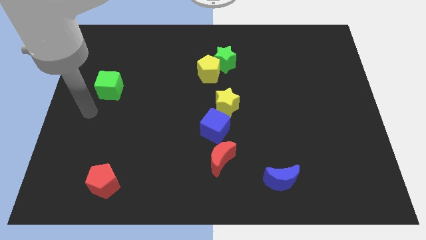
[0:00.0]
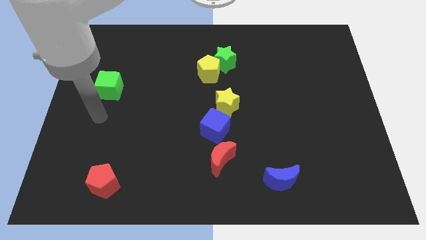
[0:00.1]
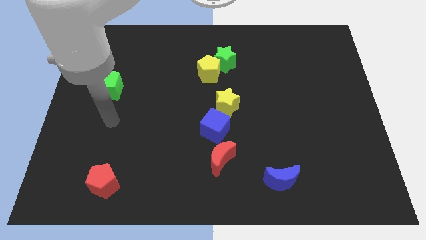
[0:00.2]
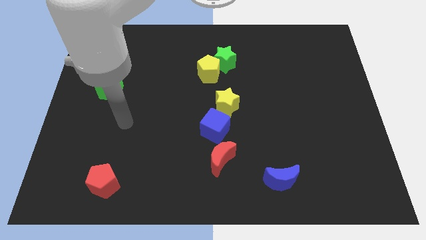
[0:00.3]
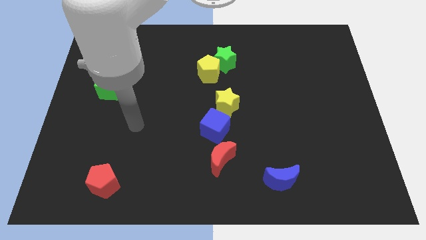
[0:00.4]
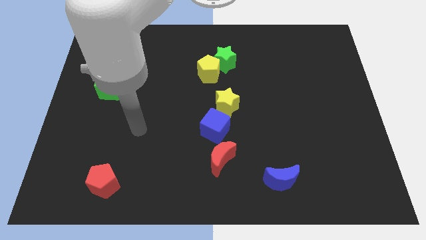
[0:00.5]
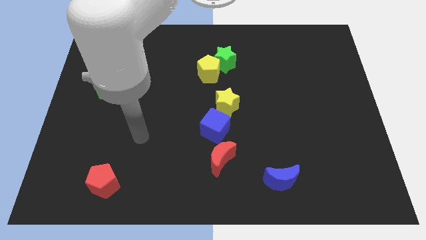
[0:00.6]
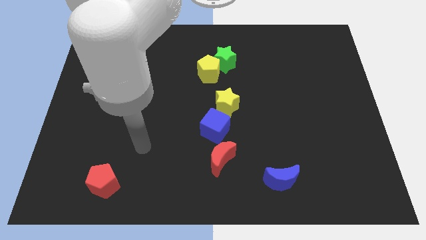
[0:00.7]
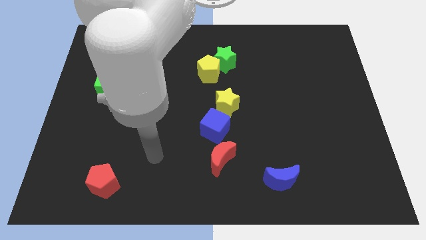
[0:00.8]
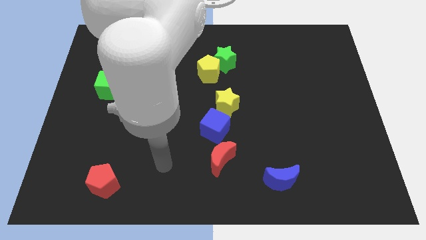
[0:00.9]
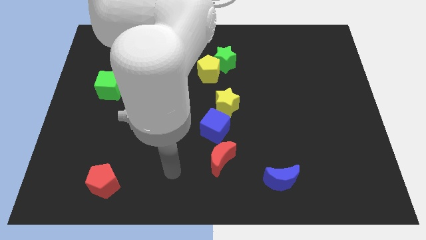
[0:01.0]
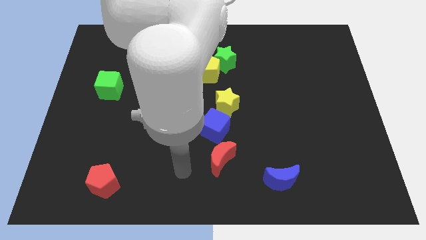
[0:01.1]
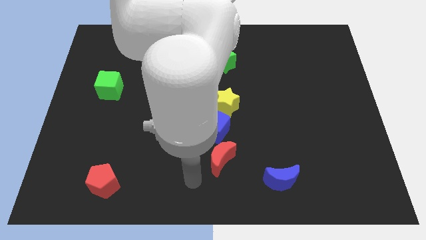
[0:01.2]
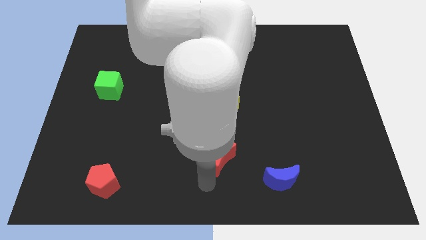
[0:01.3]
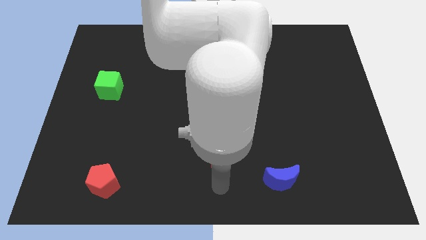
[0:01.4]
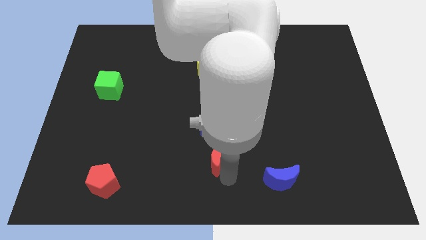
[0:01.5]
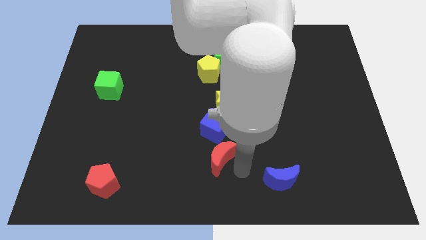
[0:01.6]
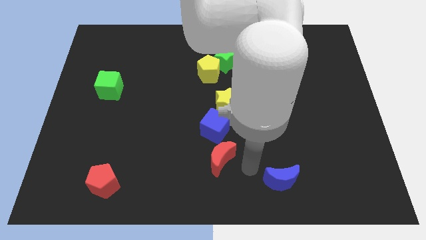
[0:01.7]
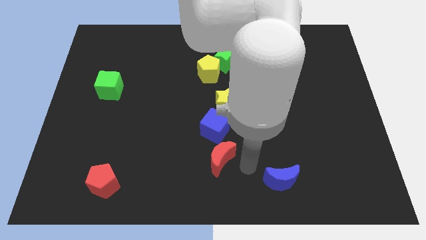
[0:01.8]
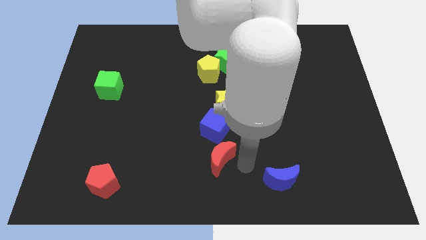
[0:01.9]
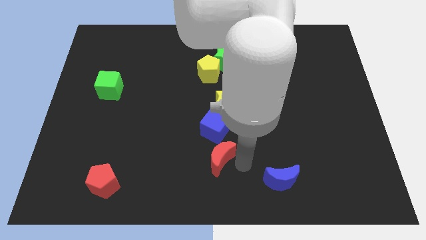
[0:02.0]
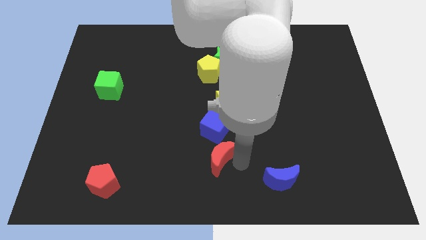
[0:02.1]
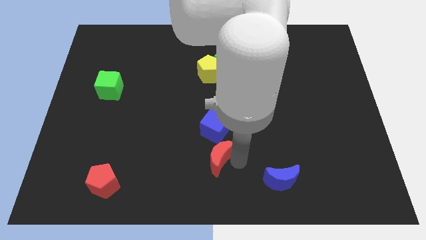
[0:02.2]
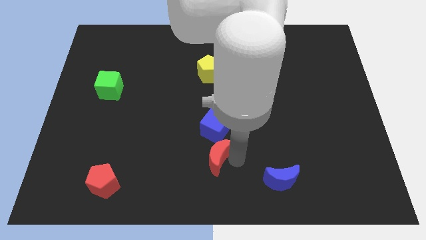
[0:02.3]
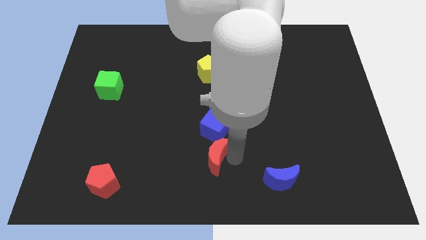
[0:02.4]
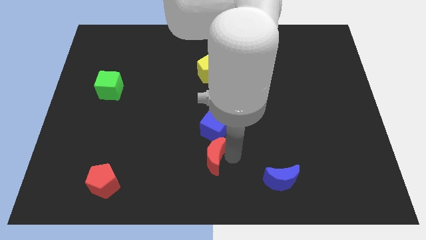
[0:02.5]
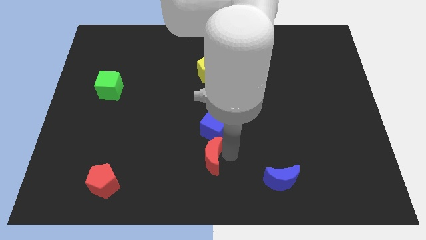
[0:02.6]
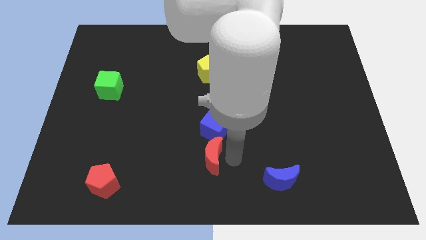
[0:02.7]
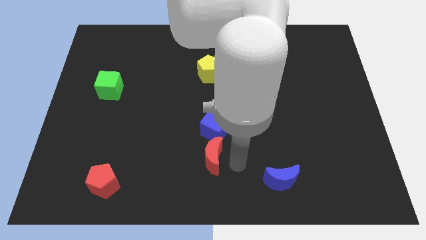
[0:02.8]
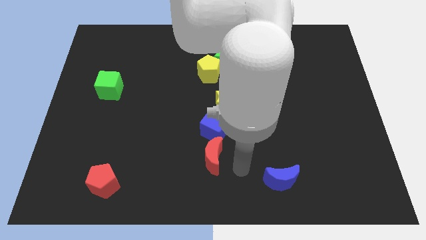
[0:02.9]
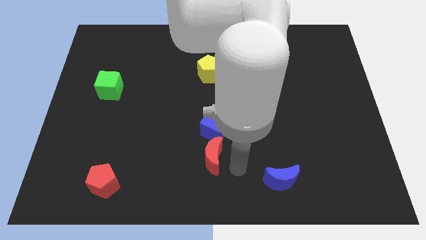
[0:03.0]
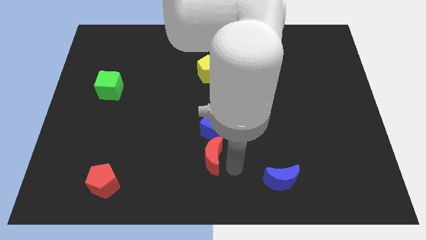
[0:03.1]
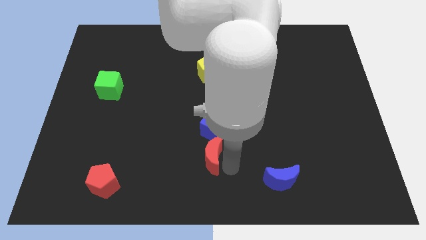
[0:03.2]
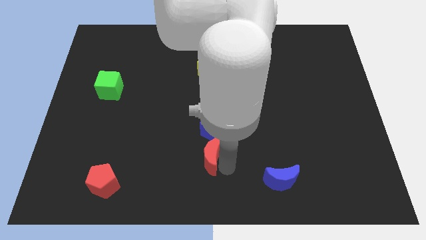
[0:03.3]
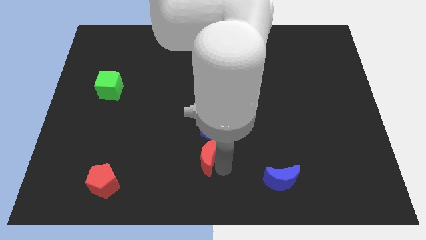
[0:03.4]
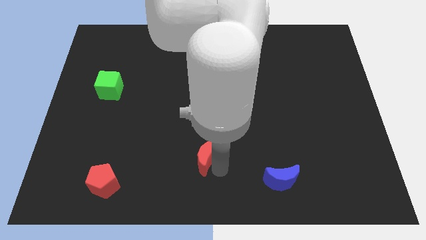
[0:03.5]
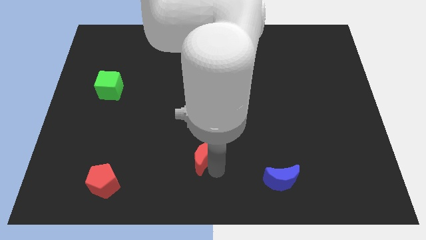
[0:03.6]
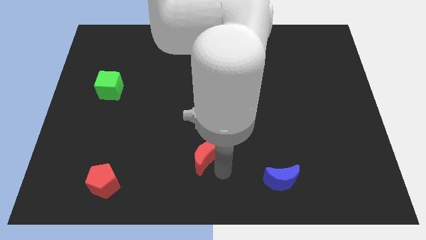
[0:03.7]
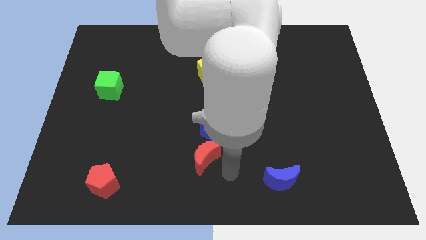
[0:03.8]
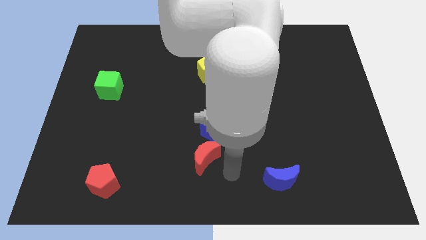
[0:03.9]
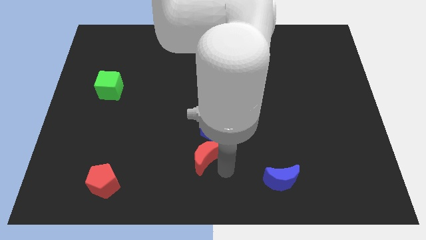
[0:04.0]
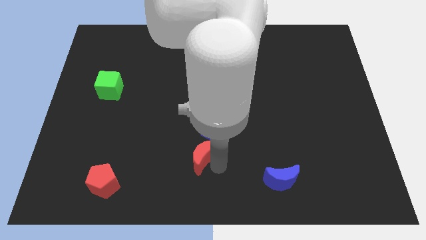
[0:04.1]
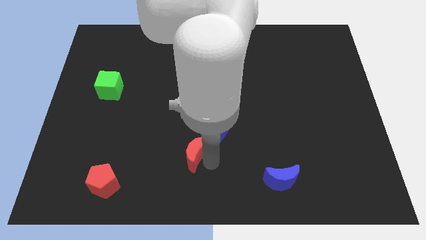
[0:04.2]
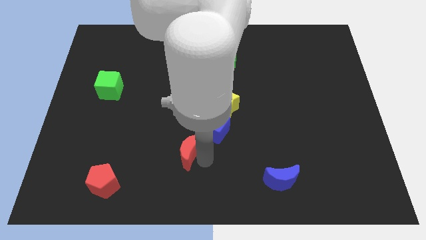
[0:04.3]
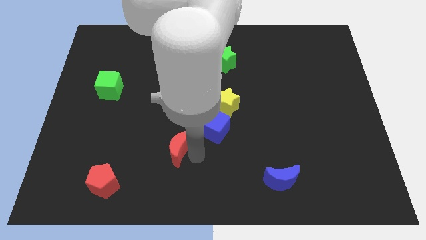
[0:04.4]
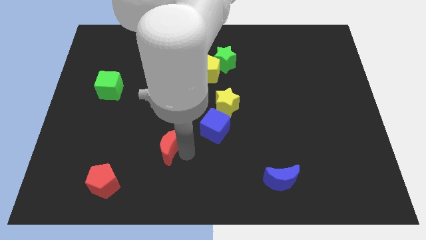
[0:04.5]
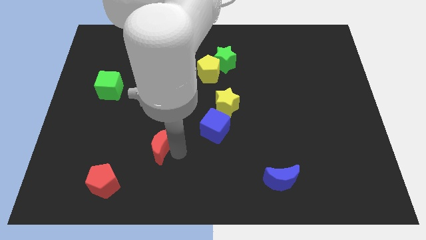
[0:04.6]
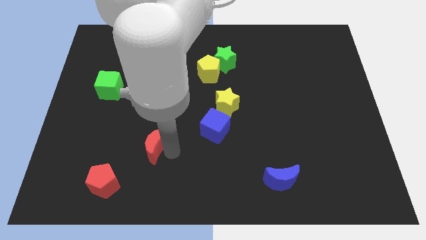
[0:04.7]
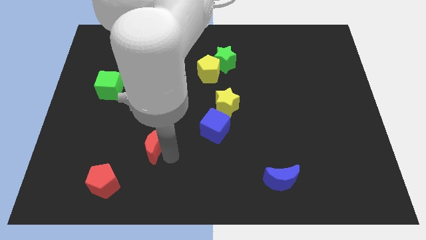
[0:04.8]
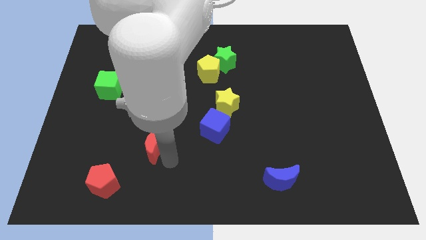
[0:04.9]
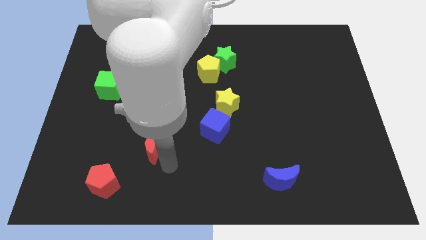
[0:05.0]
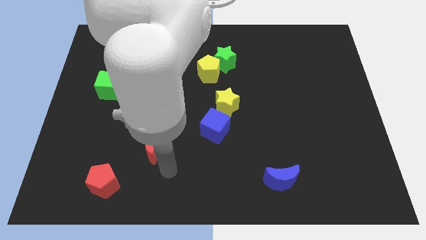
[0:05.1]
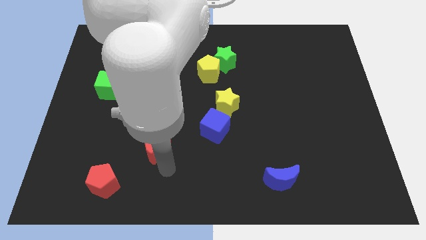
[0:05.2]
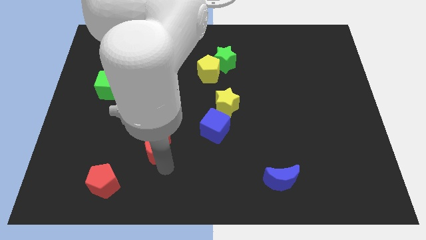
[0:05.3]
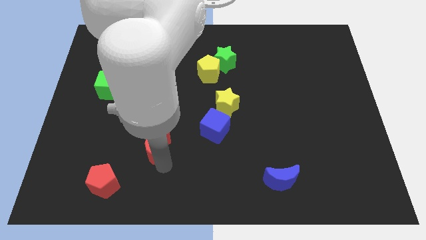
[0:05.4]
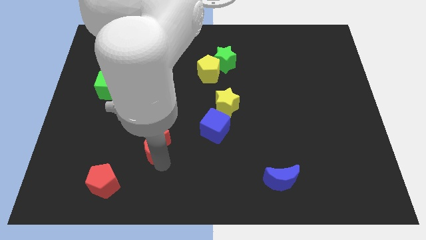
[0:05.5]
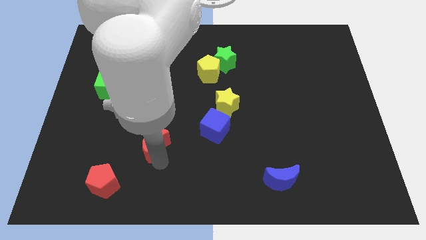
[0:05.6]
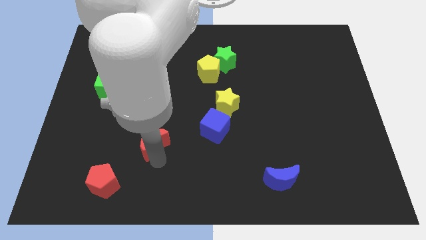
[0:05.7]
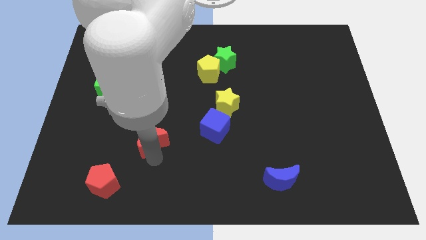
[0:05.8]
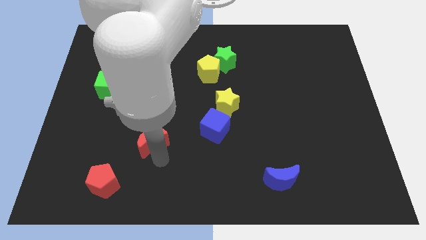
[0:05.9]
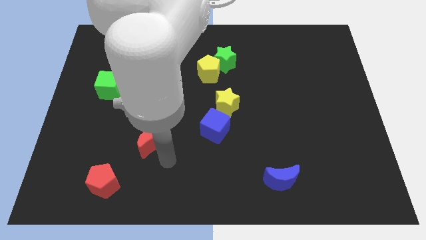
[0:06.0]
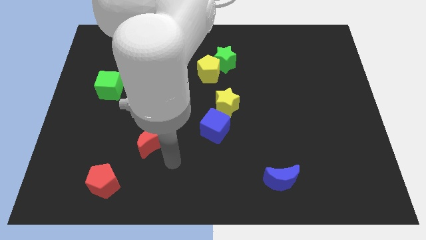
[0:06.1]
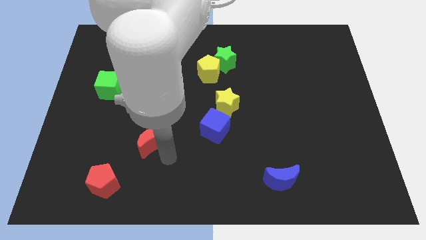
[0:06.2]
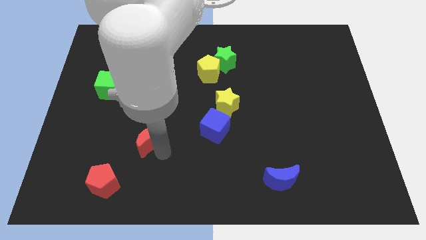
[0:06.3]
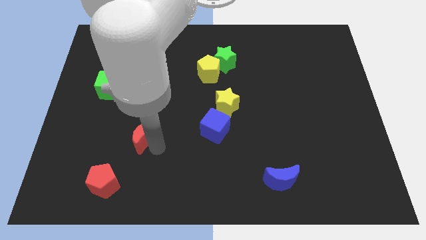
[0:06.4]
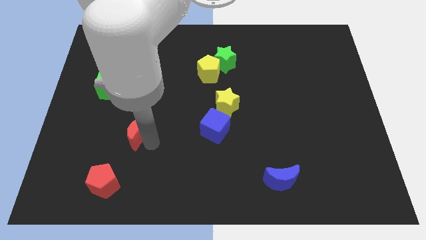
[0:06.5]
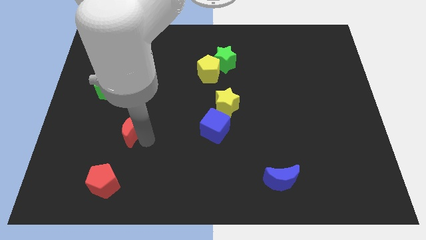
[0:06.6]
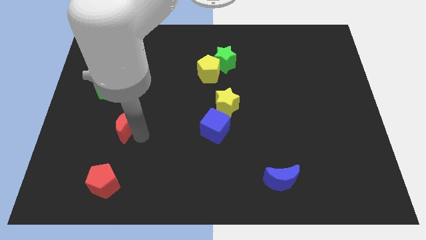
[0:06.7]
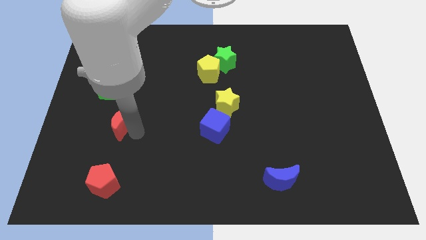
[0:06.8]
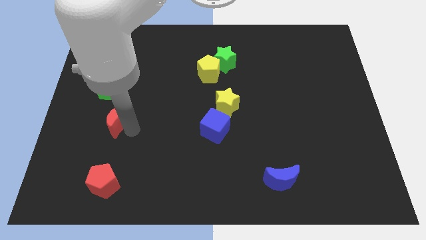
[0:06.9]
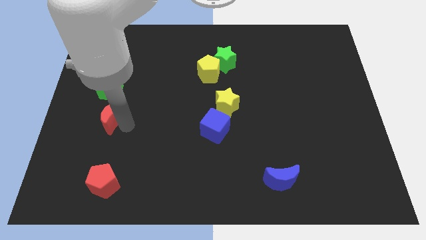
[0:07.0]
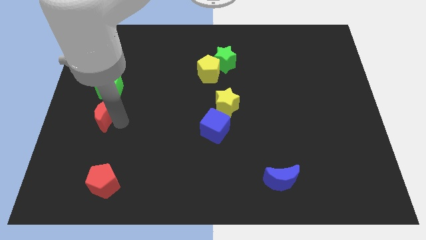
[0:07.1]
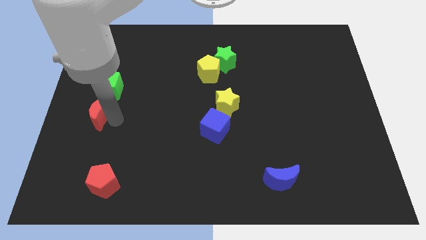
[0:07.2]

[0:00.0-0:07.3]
put the red moon to the left side of the board

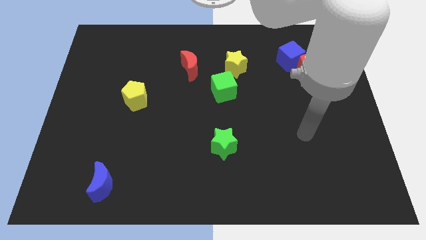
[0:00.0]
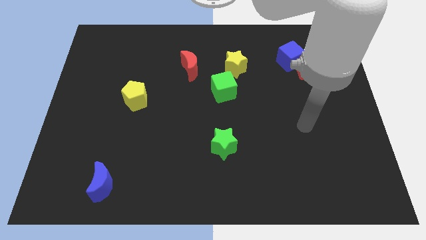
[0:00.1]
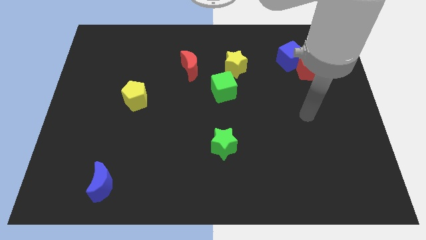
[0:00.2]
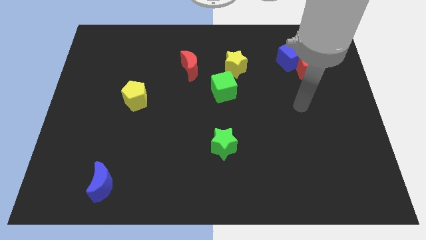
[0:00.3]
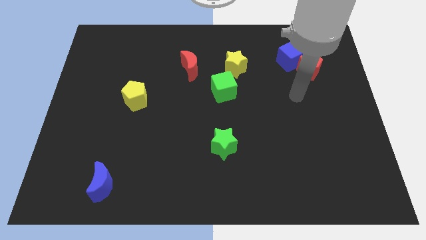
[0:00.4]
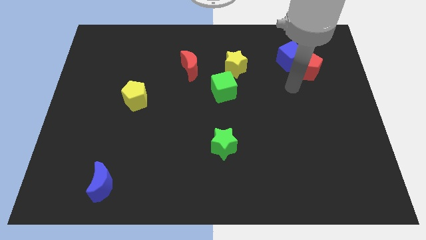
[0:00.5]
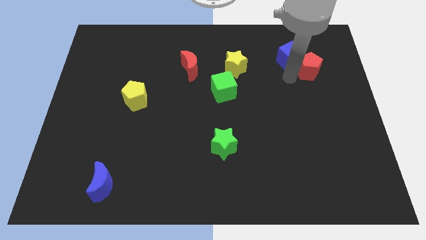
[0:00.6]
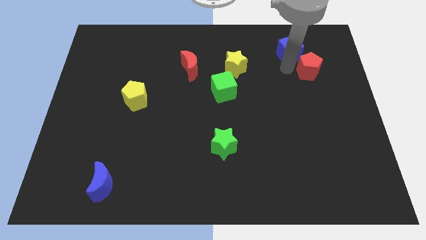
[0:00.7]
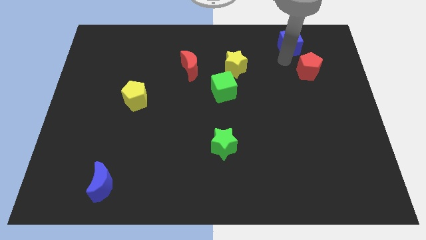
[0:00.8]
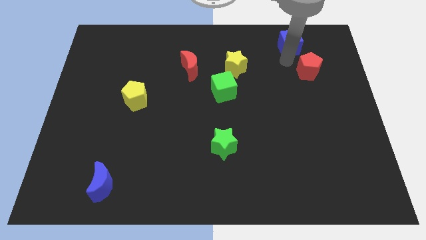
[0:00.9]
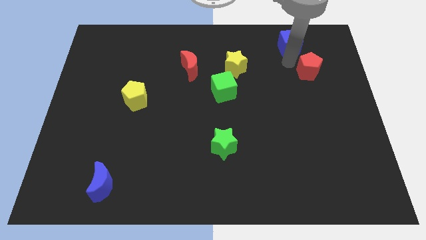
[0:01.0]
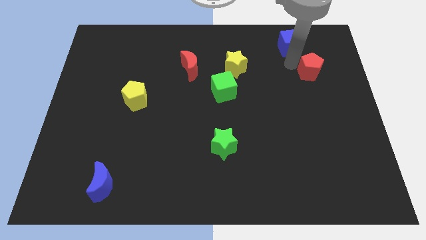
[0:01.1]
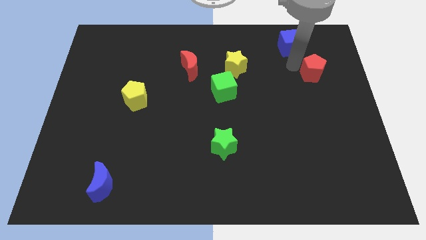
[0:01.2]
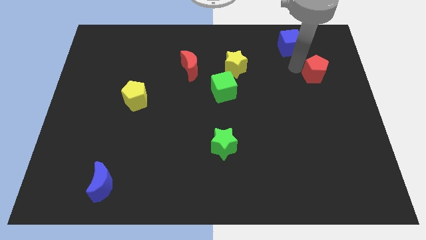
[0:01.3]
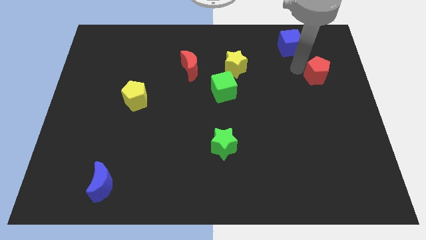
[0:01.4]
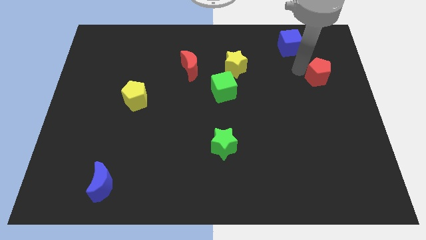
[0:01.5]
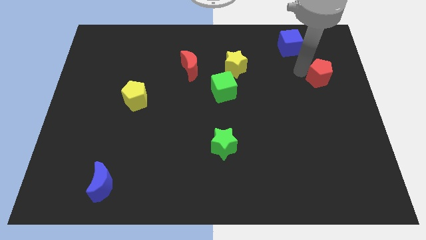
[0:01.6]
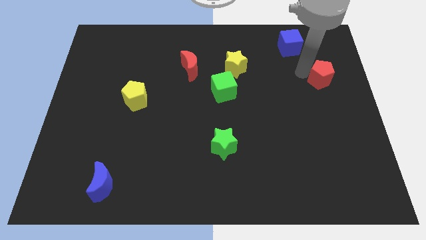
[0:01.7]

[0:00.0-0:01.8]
push the red pentagon to the right side
